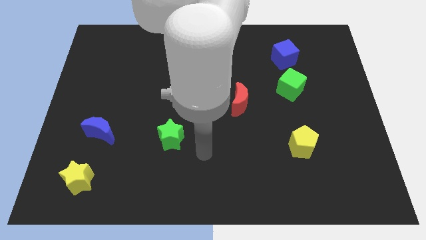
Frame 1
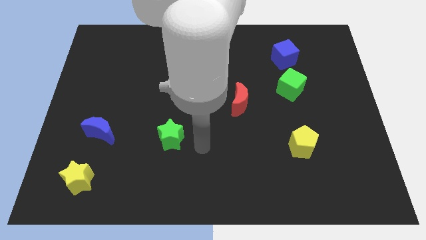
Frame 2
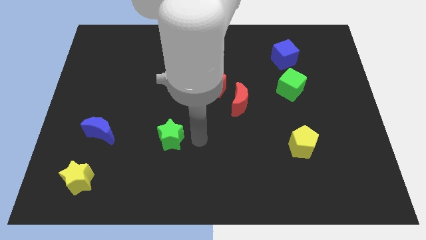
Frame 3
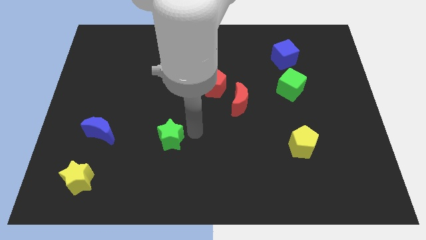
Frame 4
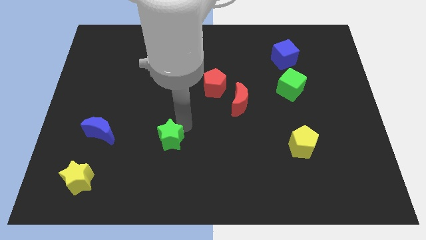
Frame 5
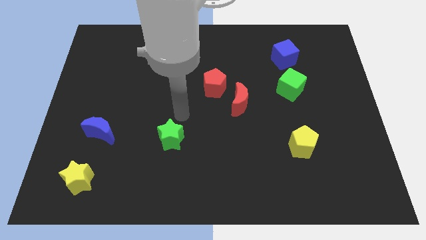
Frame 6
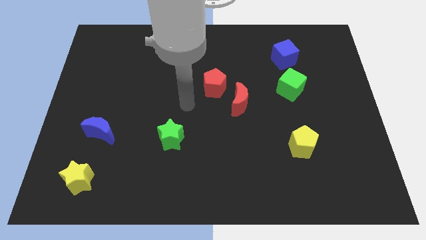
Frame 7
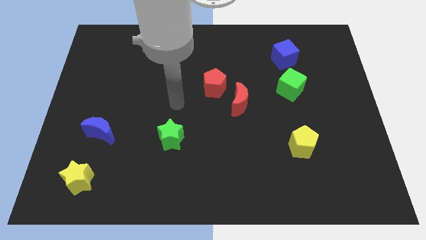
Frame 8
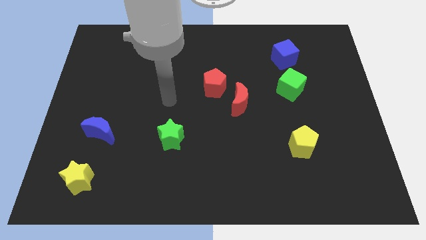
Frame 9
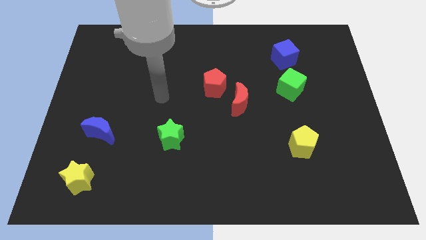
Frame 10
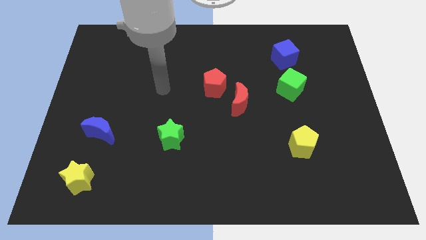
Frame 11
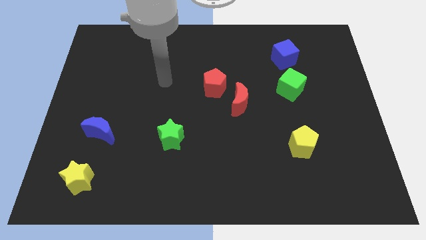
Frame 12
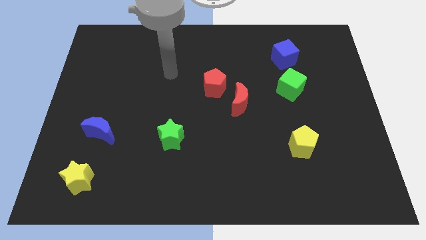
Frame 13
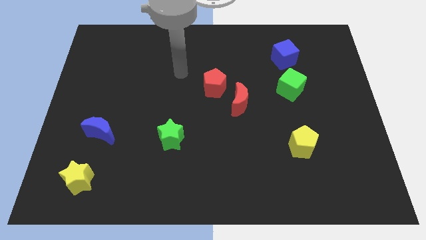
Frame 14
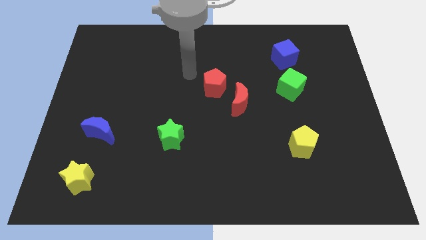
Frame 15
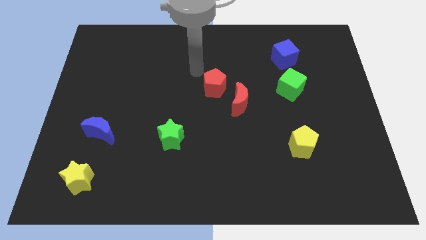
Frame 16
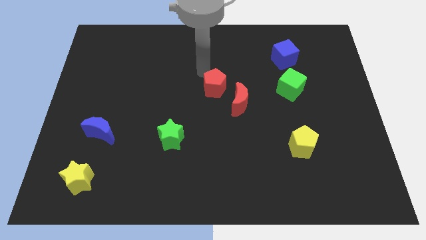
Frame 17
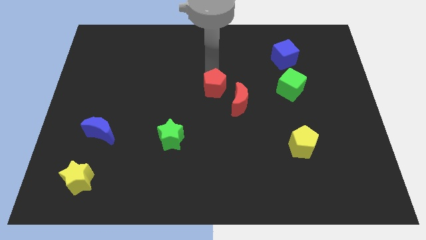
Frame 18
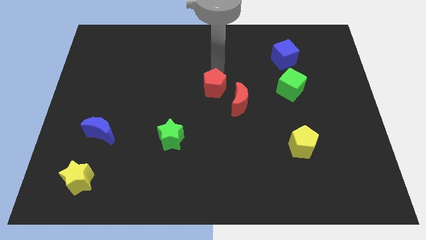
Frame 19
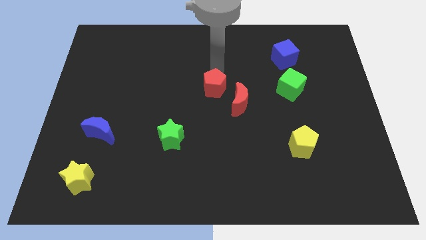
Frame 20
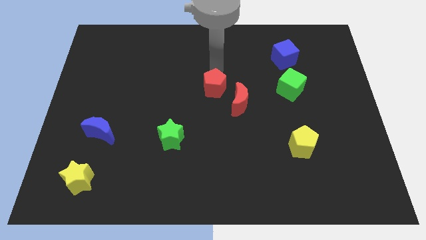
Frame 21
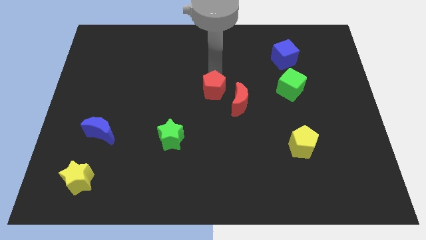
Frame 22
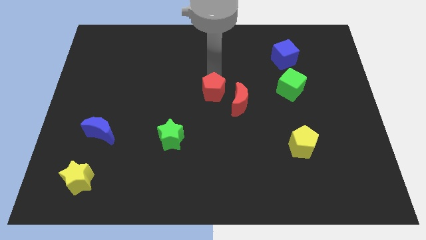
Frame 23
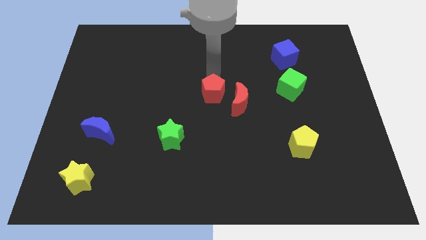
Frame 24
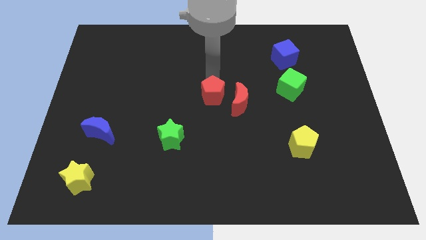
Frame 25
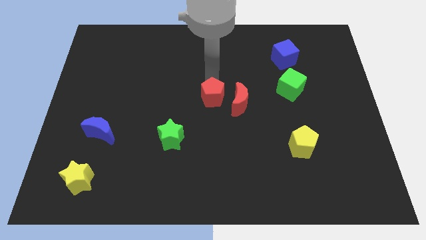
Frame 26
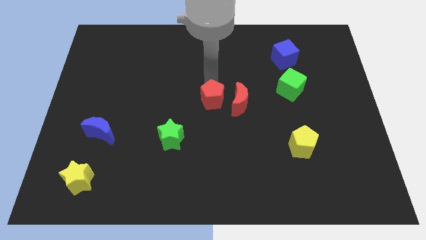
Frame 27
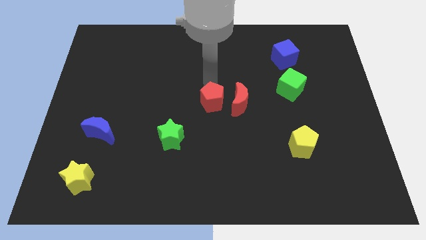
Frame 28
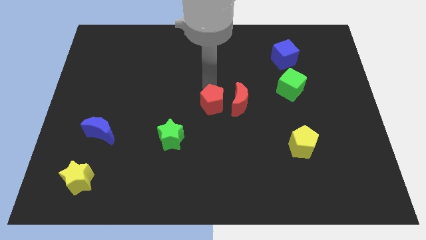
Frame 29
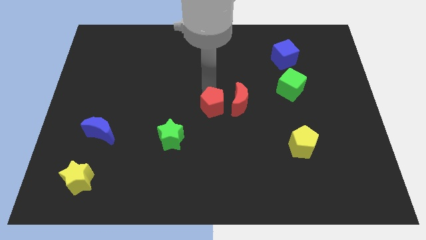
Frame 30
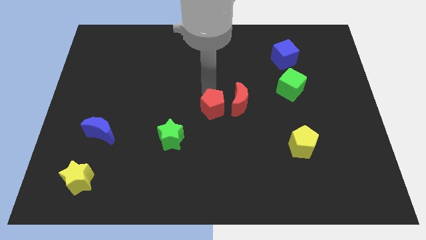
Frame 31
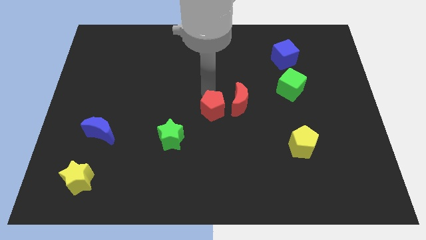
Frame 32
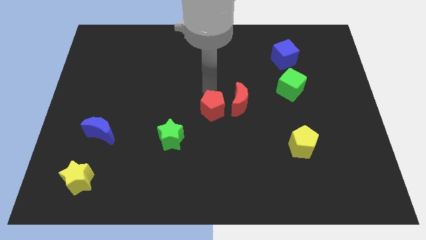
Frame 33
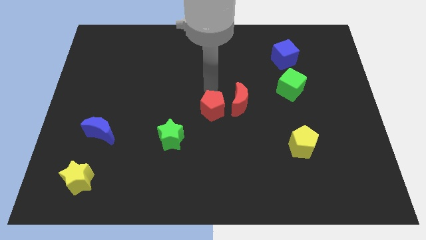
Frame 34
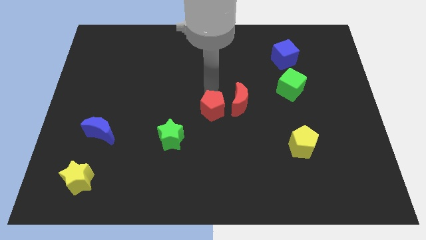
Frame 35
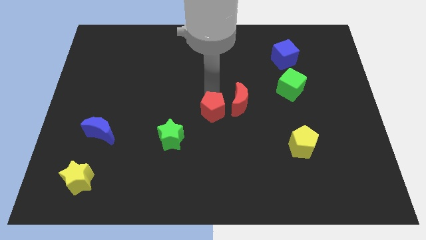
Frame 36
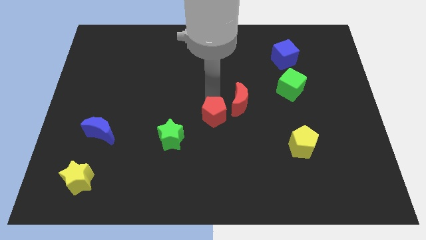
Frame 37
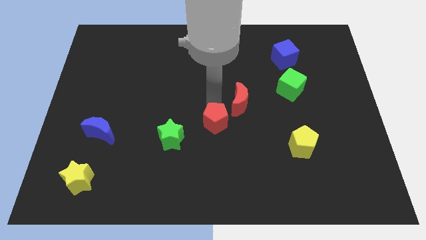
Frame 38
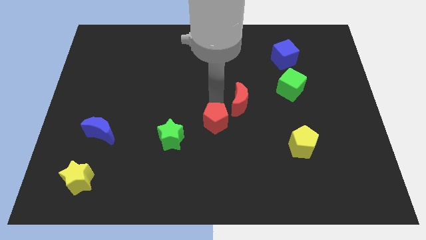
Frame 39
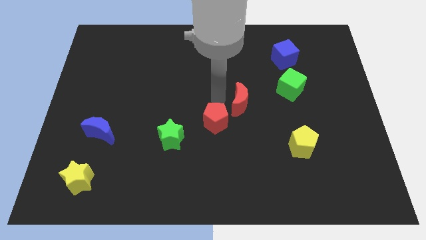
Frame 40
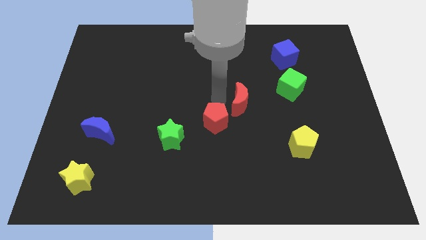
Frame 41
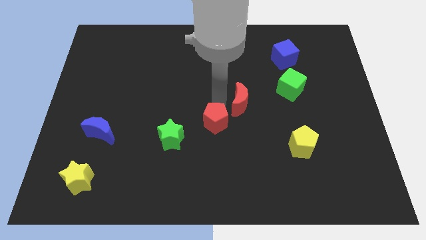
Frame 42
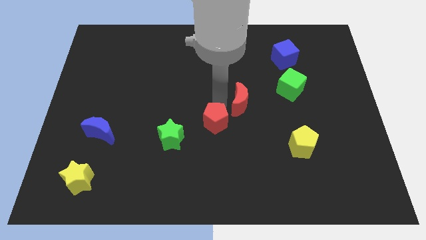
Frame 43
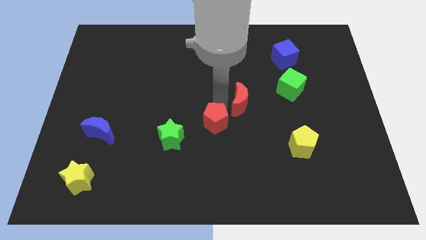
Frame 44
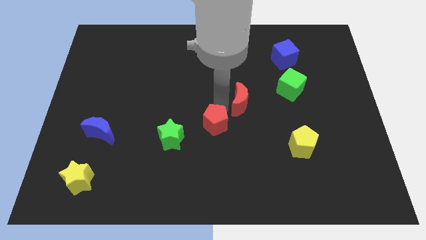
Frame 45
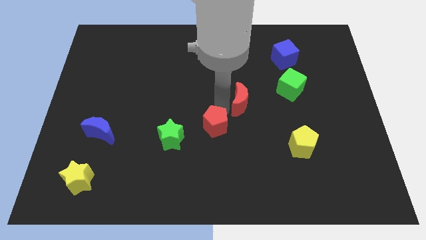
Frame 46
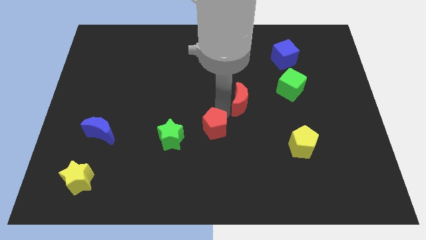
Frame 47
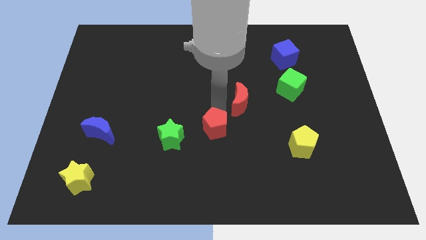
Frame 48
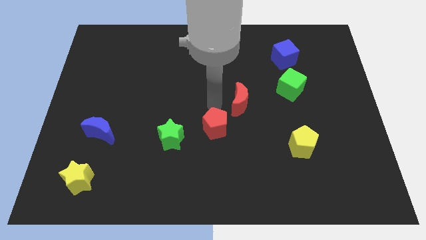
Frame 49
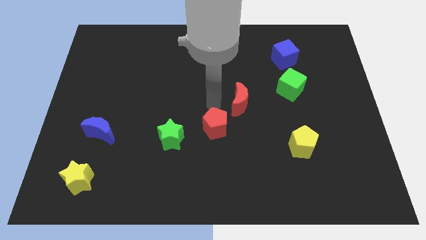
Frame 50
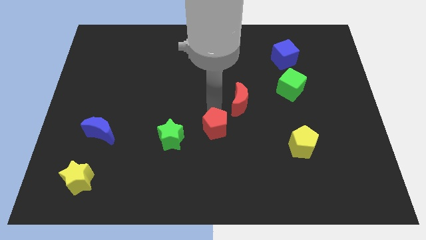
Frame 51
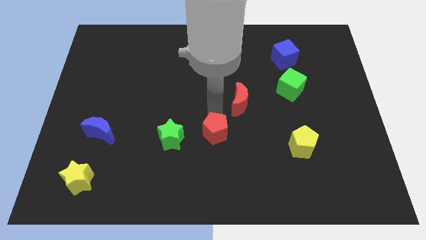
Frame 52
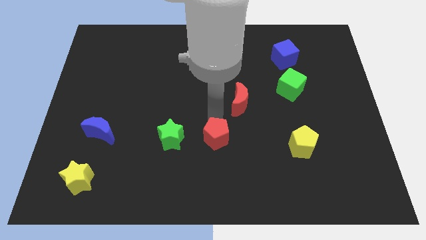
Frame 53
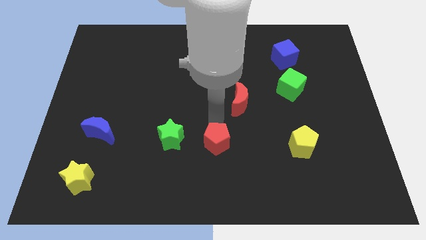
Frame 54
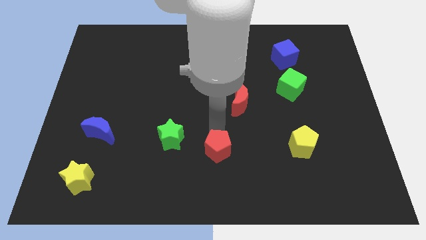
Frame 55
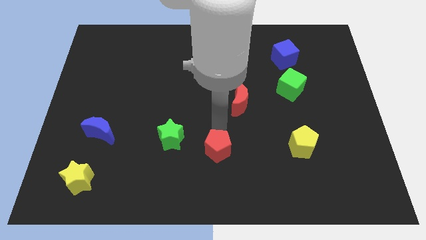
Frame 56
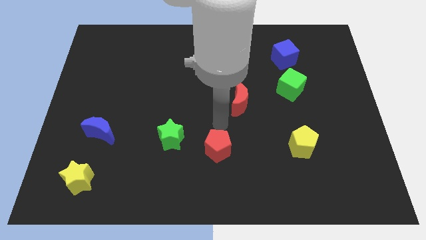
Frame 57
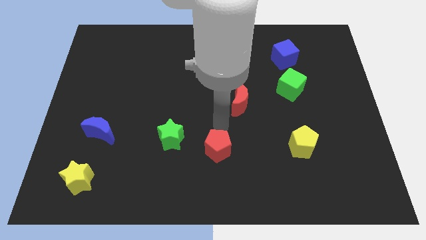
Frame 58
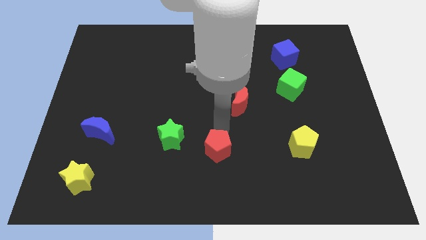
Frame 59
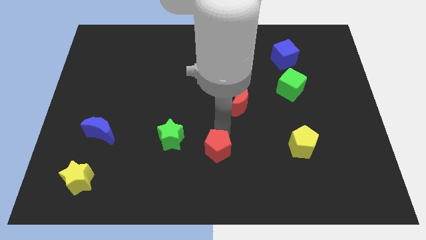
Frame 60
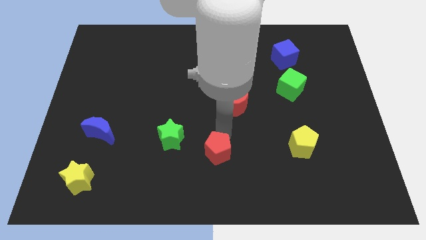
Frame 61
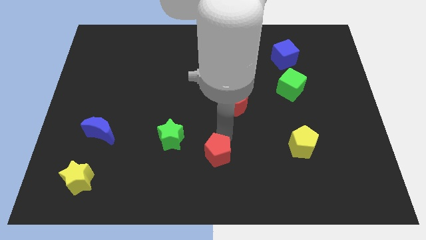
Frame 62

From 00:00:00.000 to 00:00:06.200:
push the red pentagon to the bottom side
